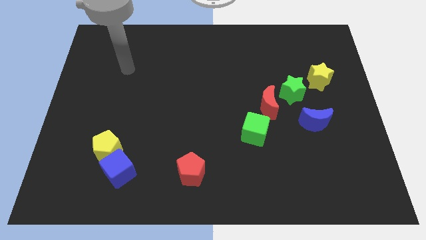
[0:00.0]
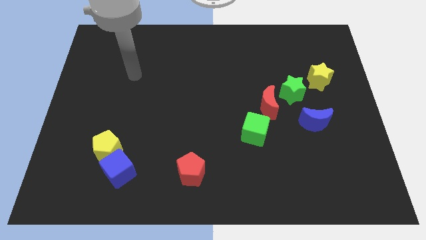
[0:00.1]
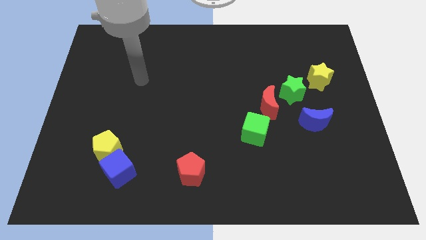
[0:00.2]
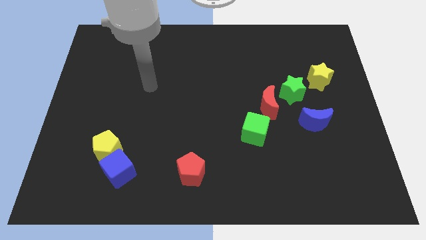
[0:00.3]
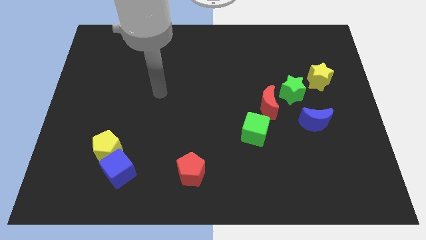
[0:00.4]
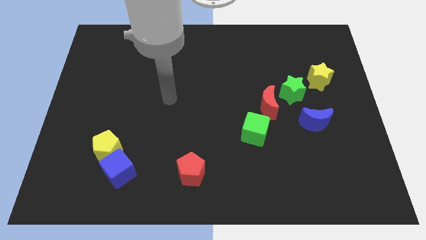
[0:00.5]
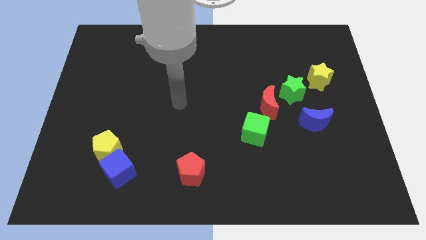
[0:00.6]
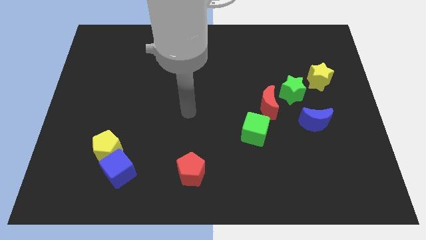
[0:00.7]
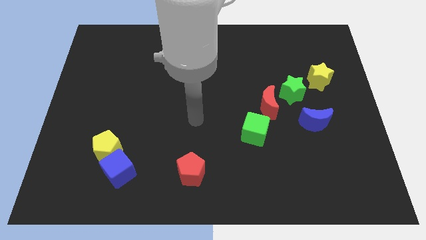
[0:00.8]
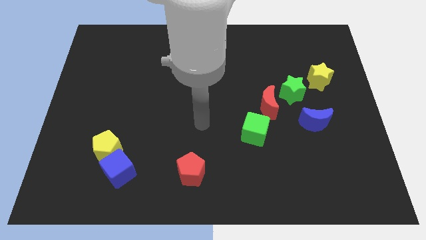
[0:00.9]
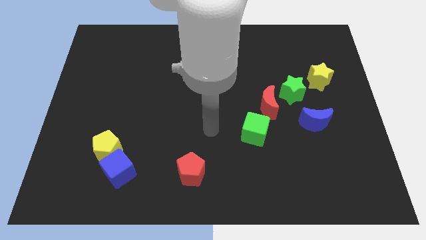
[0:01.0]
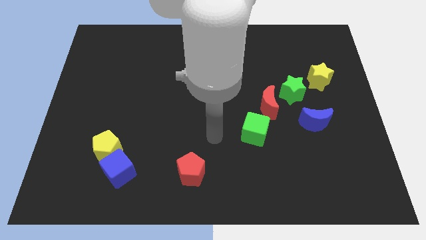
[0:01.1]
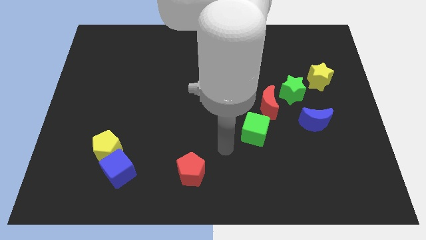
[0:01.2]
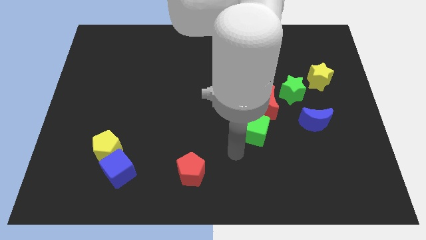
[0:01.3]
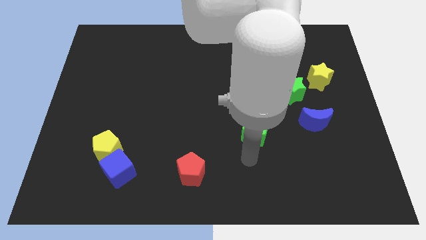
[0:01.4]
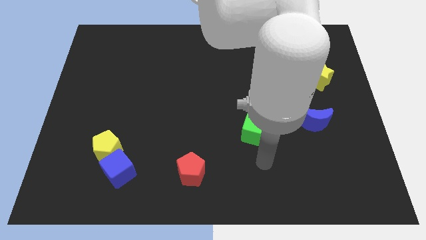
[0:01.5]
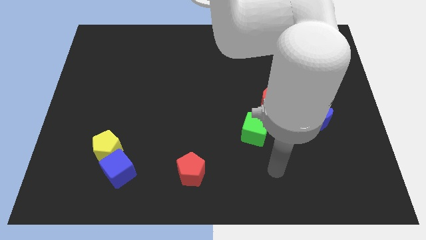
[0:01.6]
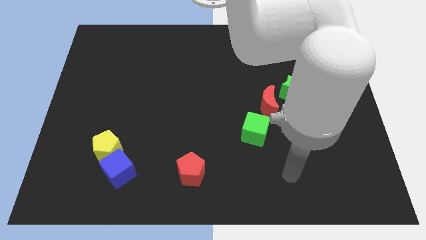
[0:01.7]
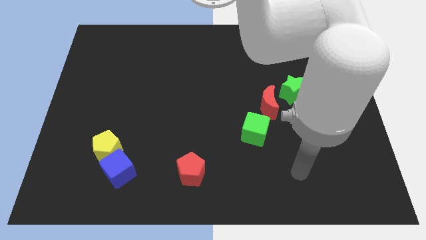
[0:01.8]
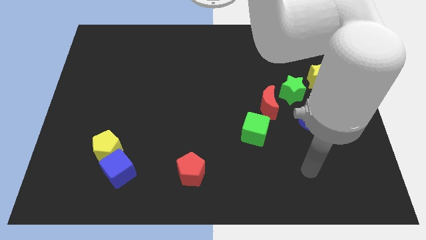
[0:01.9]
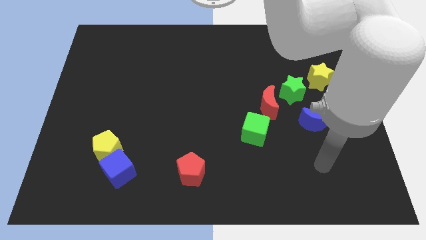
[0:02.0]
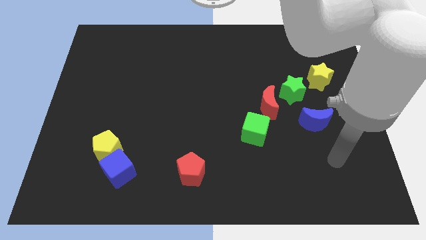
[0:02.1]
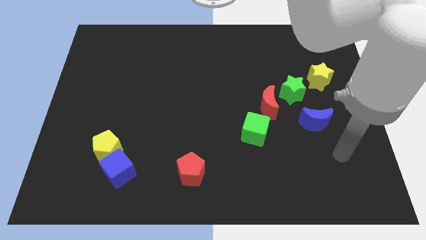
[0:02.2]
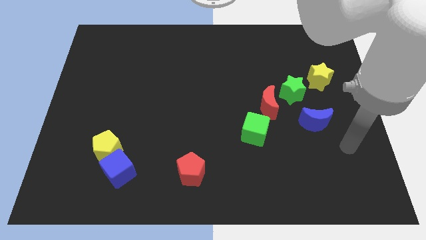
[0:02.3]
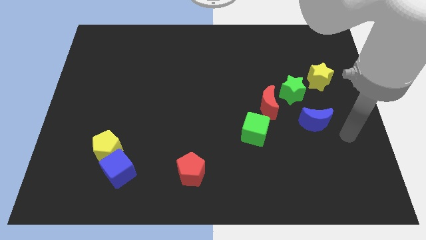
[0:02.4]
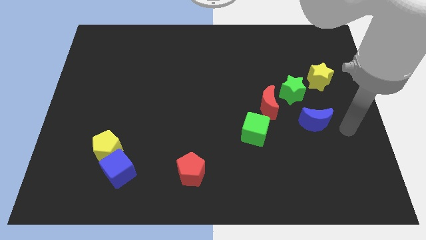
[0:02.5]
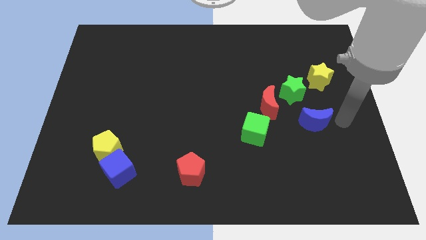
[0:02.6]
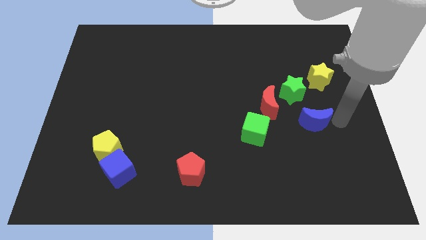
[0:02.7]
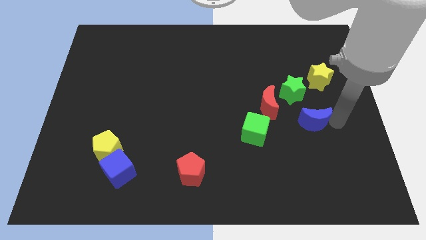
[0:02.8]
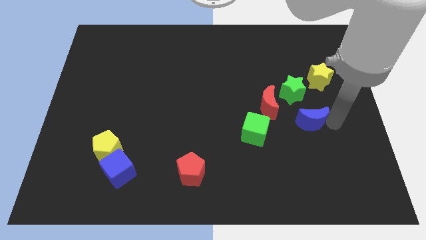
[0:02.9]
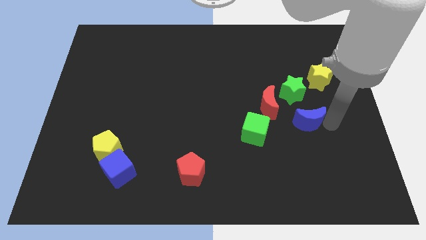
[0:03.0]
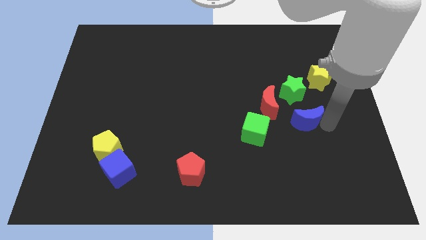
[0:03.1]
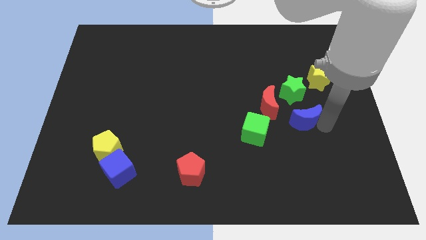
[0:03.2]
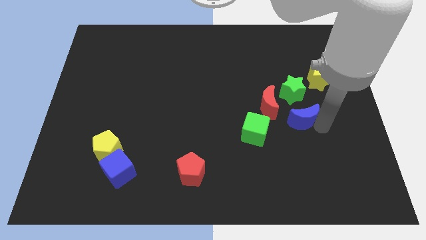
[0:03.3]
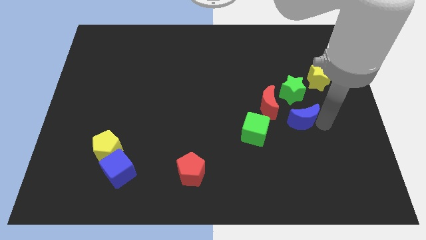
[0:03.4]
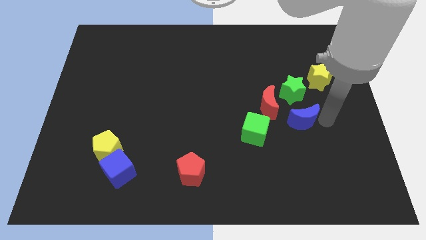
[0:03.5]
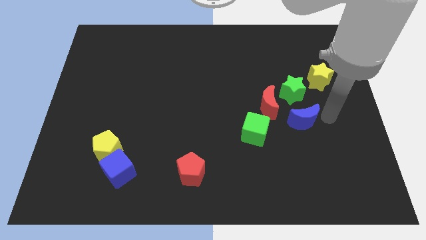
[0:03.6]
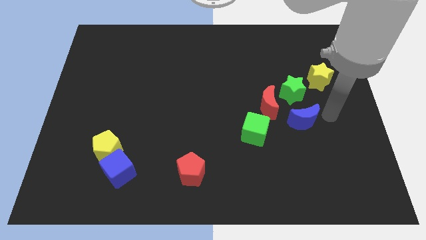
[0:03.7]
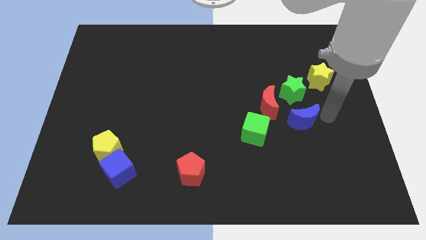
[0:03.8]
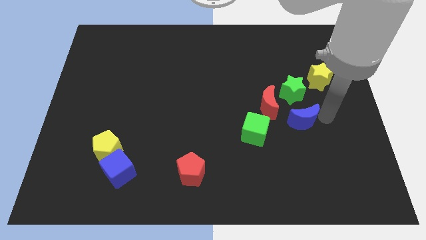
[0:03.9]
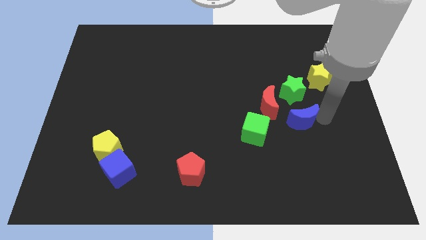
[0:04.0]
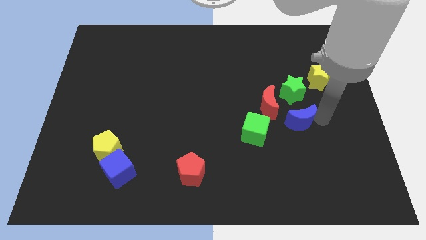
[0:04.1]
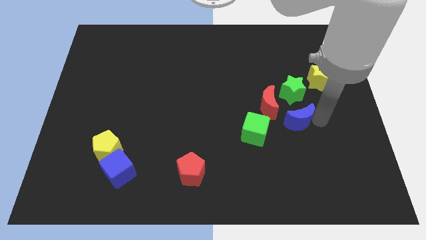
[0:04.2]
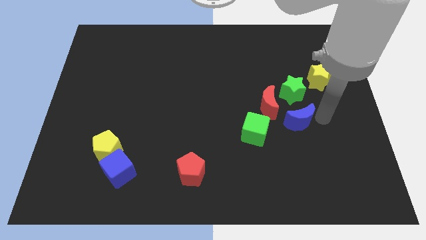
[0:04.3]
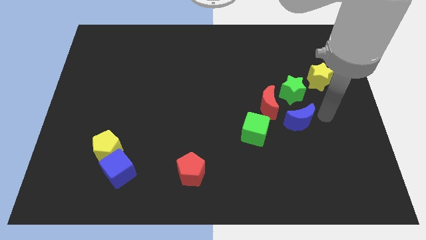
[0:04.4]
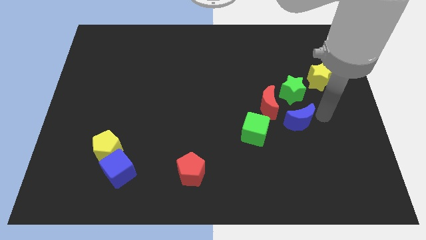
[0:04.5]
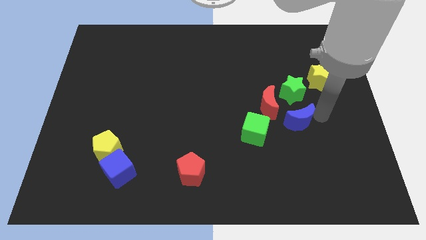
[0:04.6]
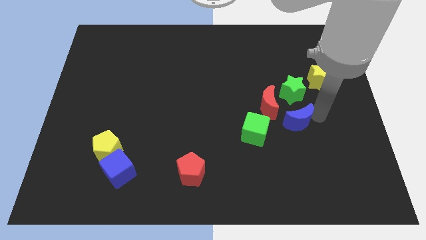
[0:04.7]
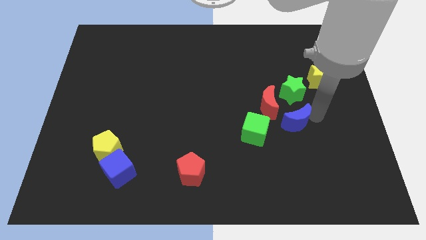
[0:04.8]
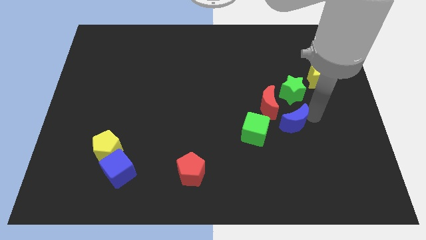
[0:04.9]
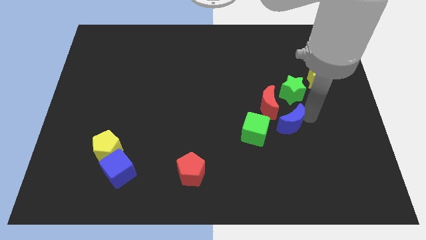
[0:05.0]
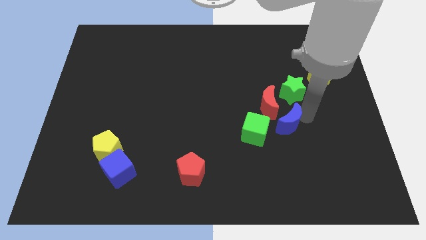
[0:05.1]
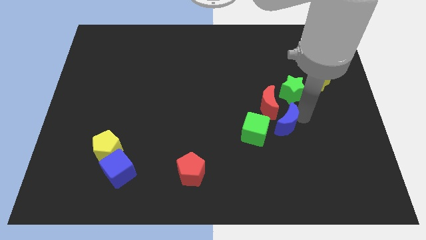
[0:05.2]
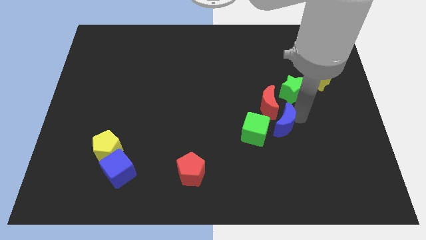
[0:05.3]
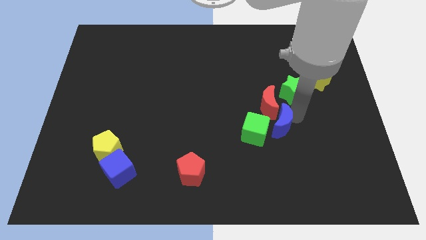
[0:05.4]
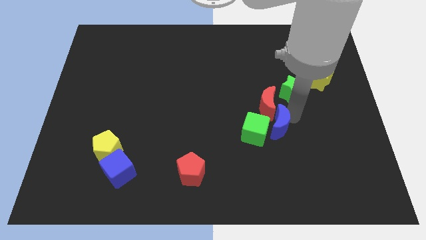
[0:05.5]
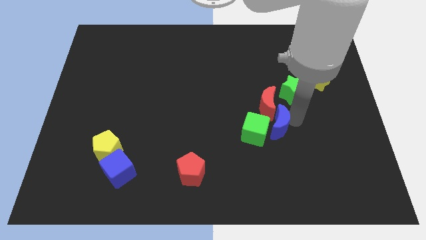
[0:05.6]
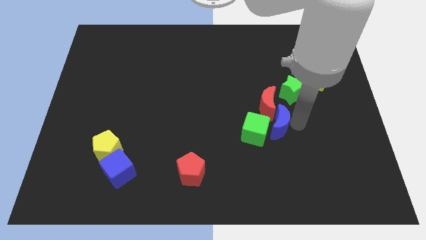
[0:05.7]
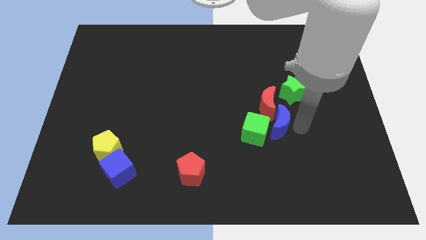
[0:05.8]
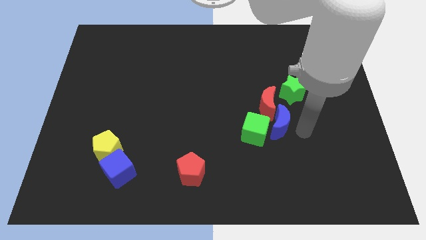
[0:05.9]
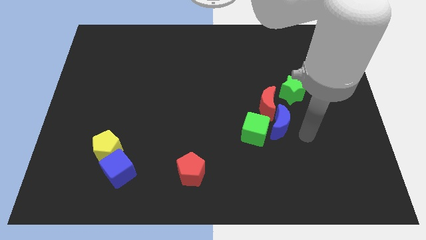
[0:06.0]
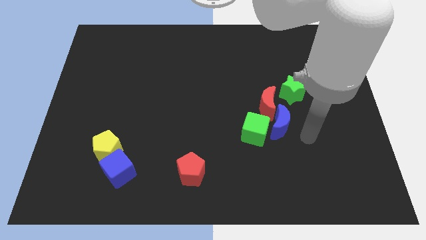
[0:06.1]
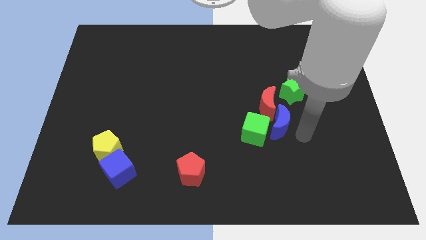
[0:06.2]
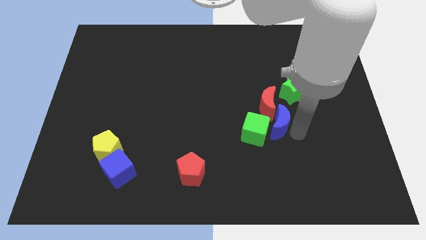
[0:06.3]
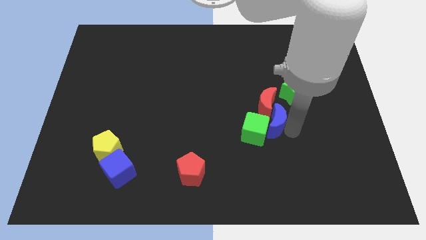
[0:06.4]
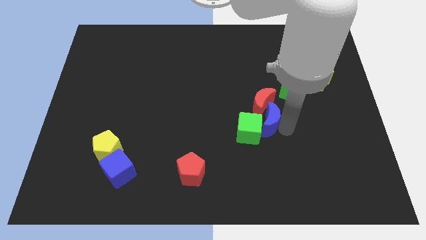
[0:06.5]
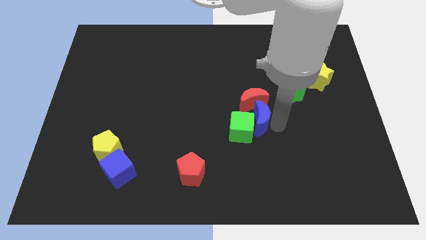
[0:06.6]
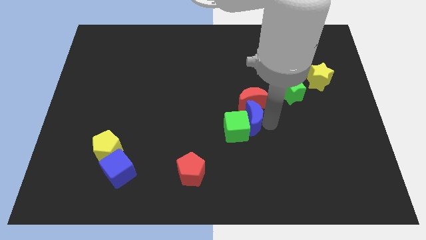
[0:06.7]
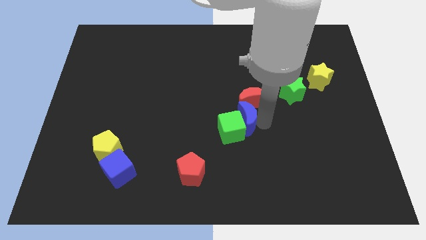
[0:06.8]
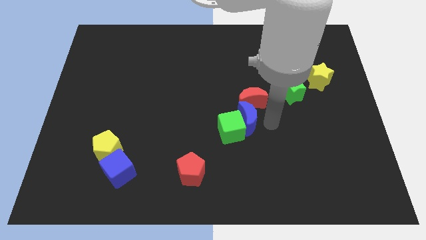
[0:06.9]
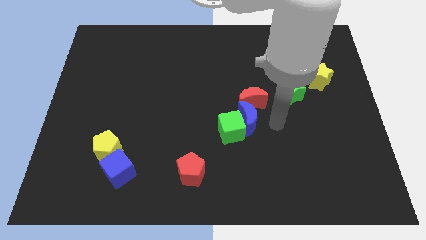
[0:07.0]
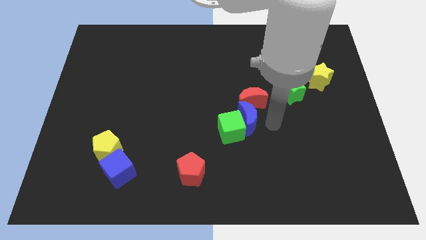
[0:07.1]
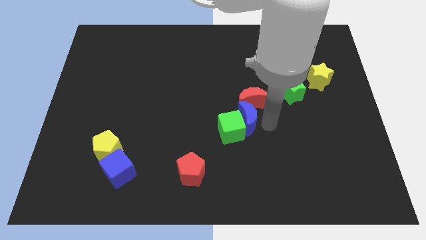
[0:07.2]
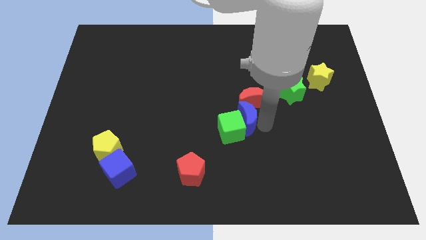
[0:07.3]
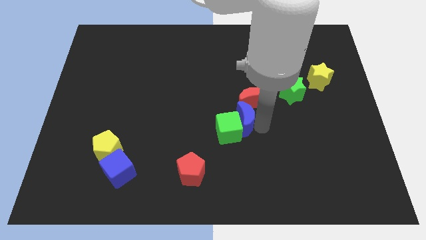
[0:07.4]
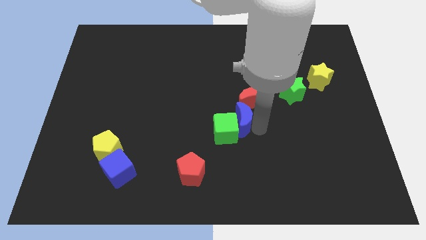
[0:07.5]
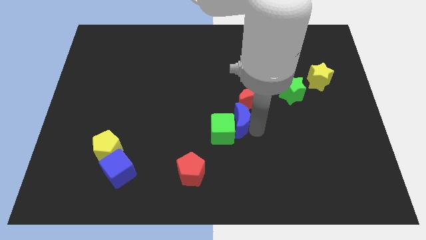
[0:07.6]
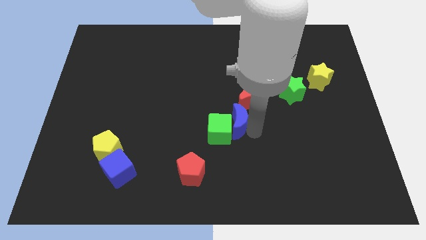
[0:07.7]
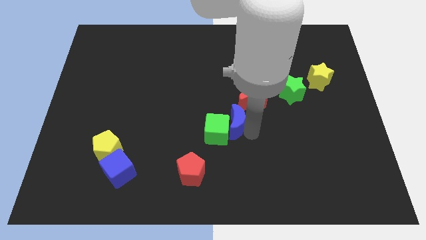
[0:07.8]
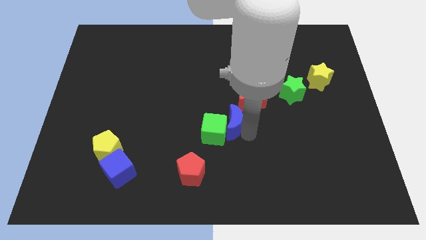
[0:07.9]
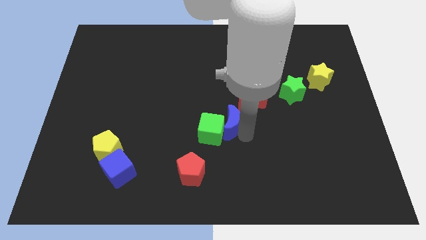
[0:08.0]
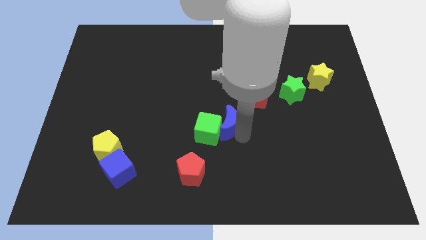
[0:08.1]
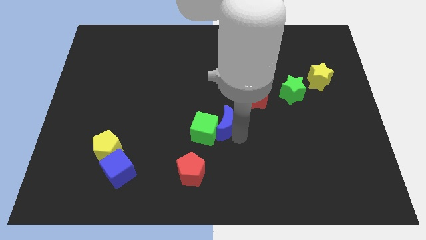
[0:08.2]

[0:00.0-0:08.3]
slide the blue moon left
